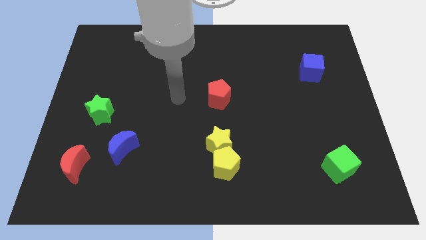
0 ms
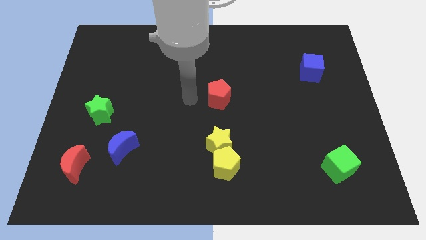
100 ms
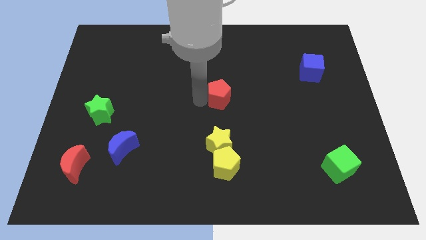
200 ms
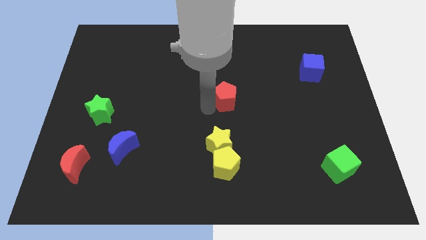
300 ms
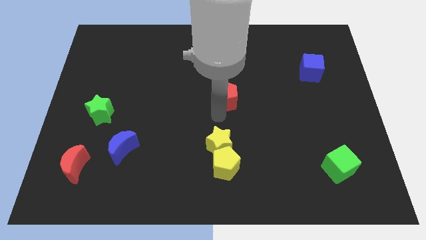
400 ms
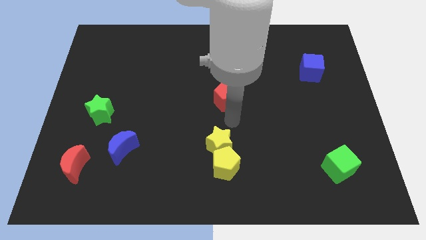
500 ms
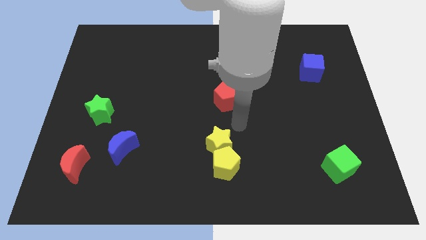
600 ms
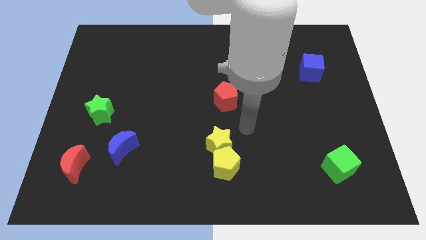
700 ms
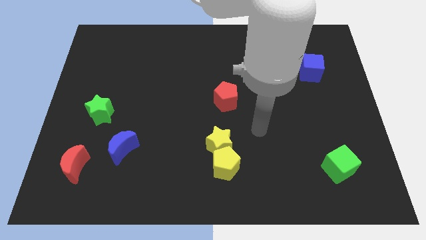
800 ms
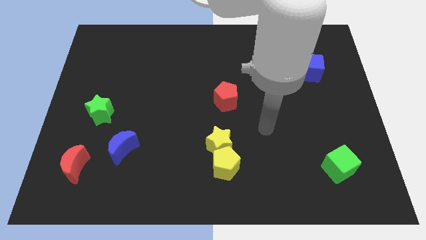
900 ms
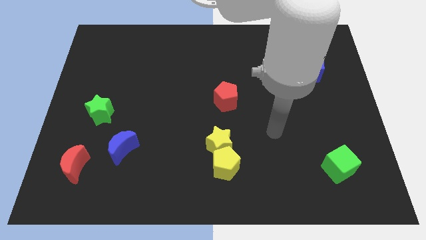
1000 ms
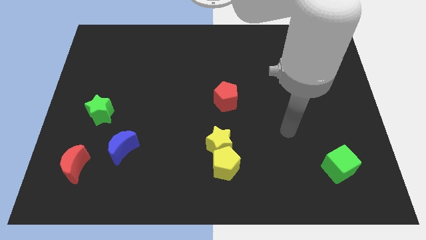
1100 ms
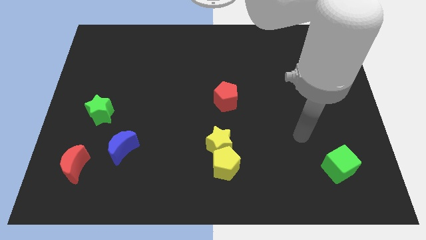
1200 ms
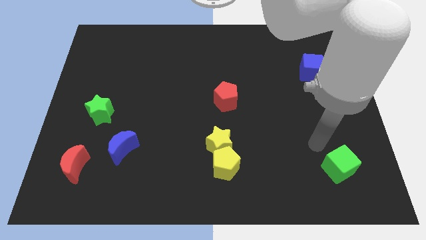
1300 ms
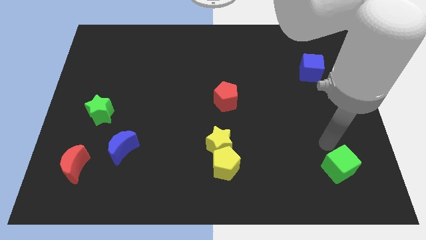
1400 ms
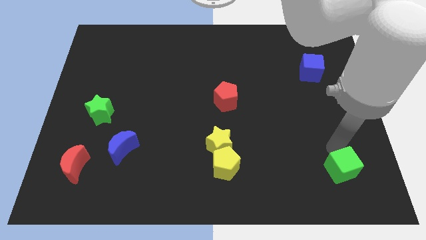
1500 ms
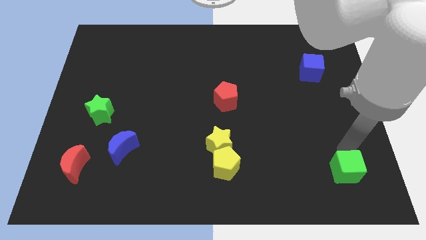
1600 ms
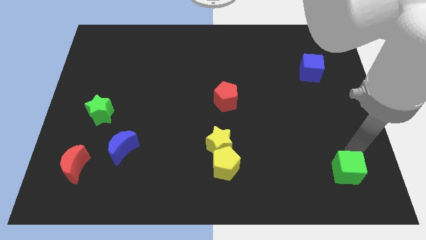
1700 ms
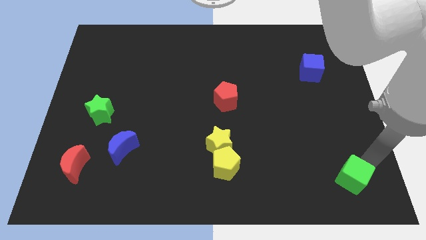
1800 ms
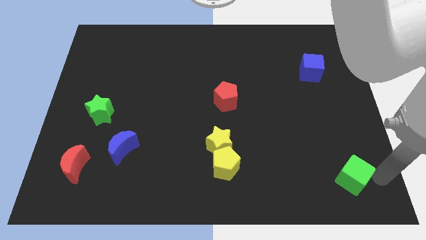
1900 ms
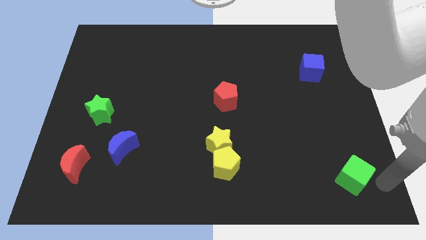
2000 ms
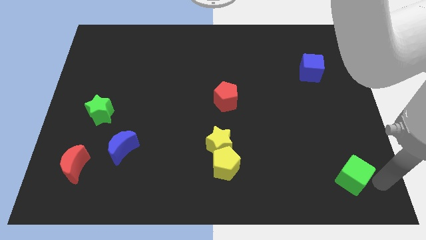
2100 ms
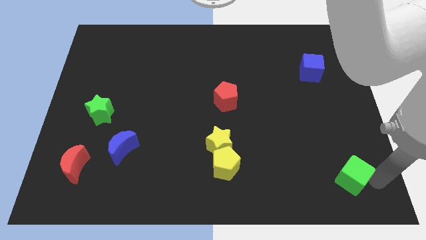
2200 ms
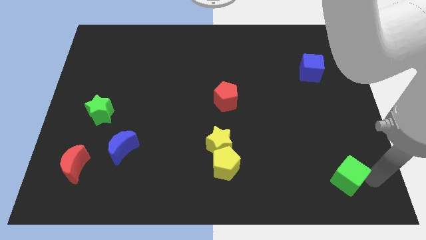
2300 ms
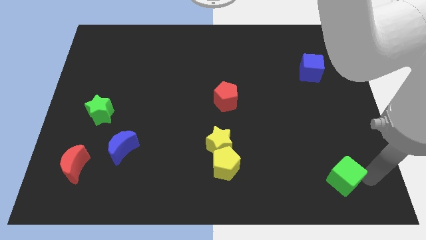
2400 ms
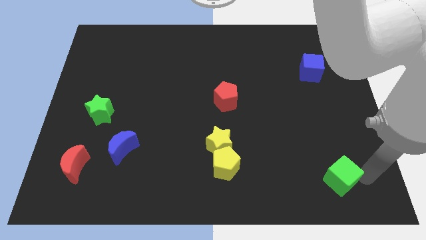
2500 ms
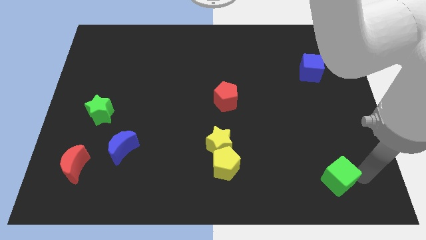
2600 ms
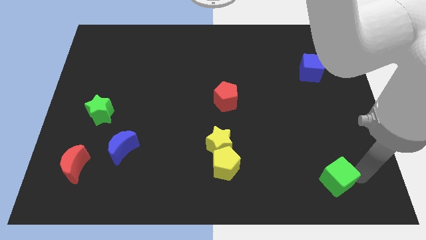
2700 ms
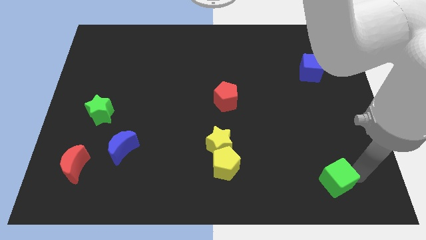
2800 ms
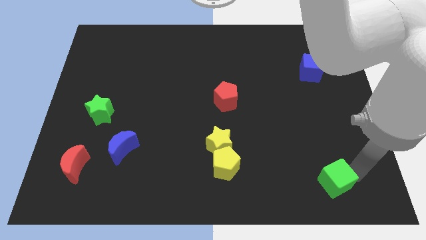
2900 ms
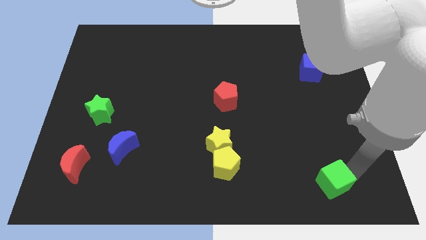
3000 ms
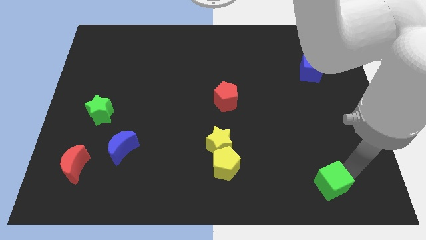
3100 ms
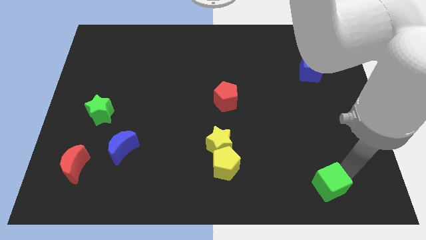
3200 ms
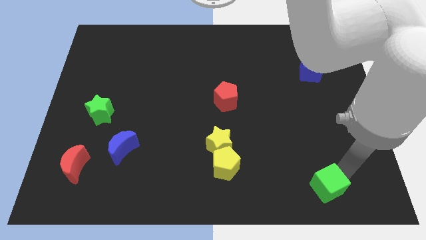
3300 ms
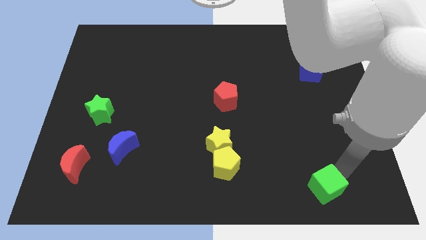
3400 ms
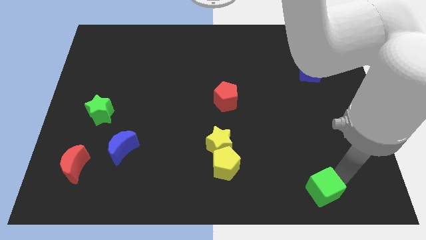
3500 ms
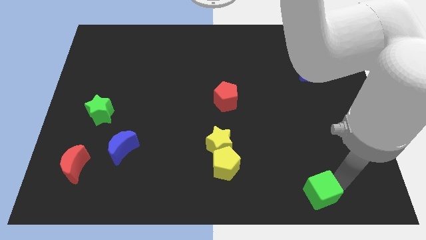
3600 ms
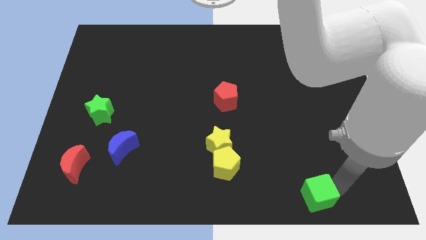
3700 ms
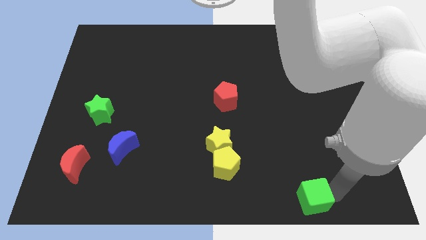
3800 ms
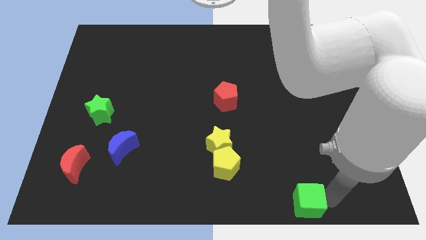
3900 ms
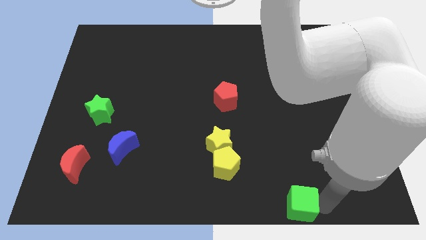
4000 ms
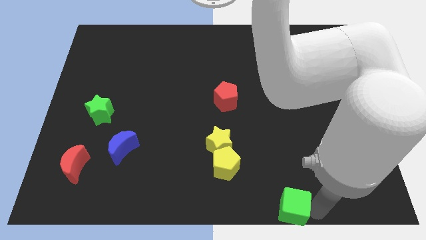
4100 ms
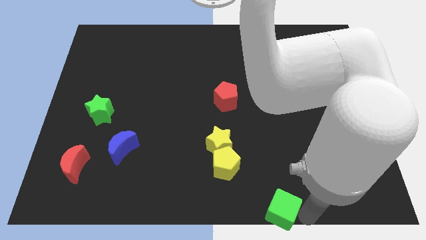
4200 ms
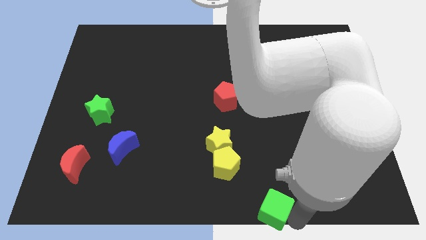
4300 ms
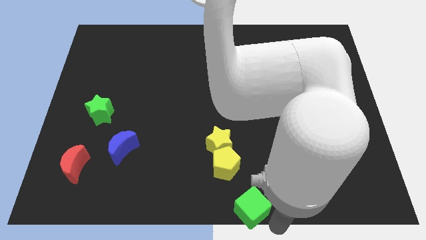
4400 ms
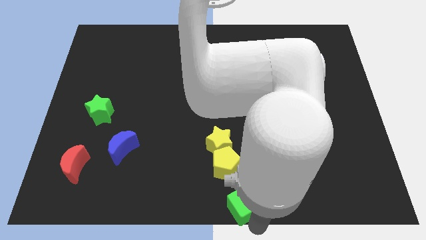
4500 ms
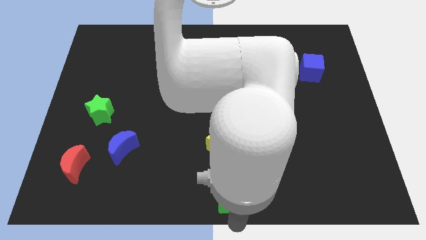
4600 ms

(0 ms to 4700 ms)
move the green cube to the left

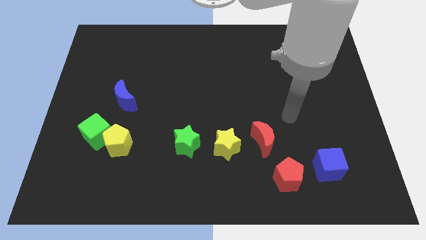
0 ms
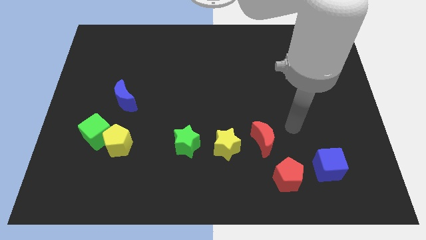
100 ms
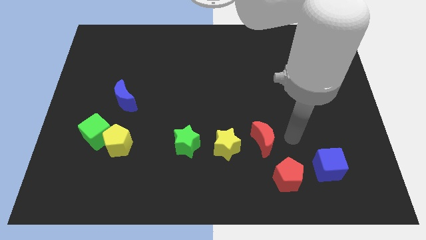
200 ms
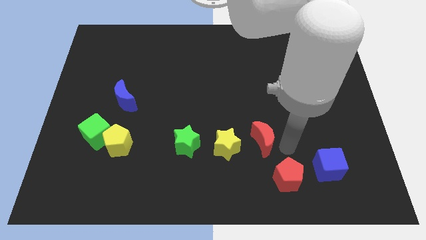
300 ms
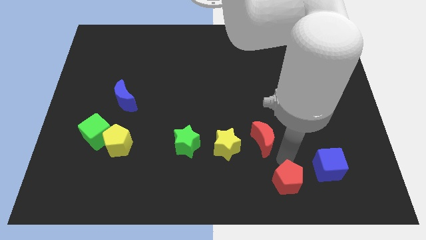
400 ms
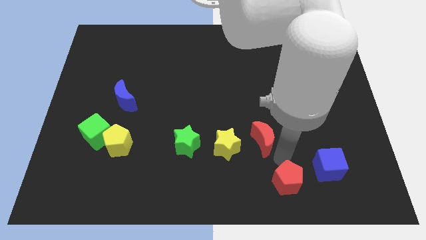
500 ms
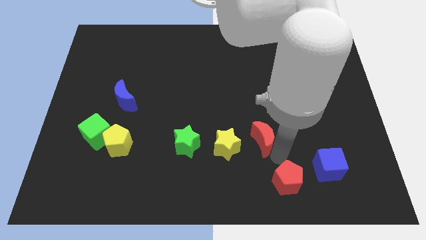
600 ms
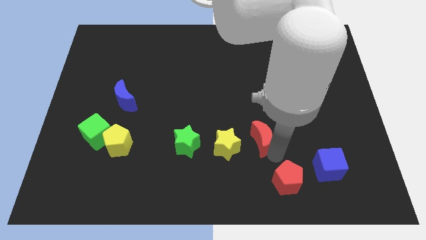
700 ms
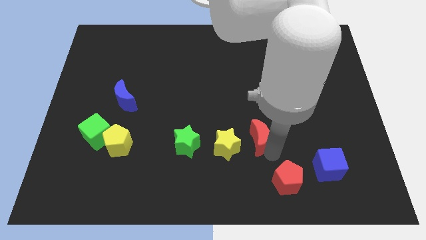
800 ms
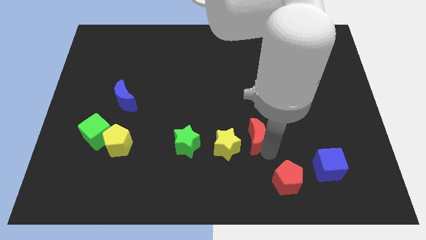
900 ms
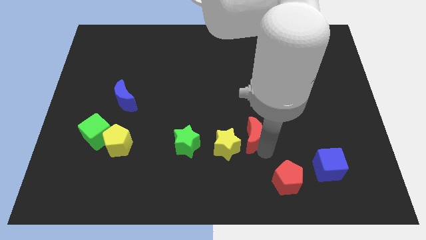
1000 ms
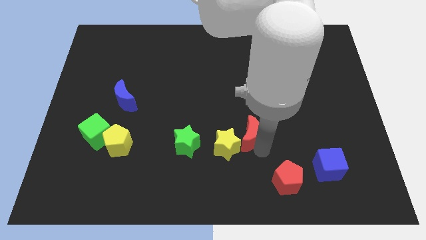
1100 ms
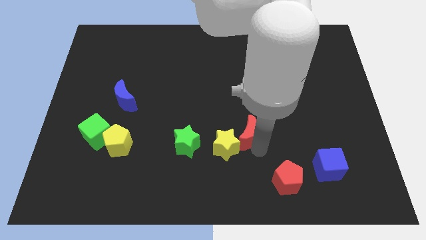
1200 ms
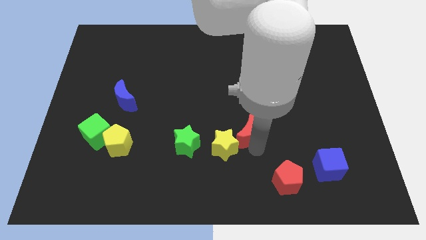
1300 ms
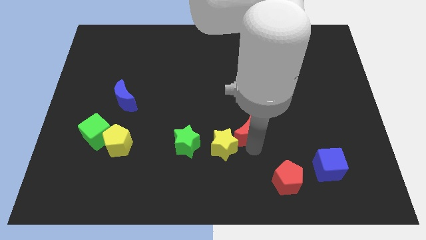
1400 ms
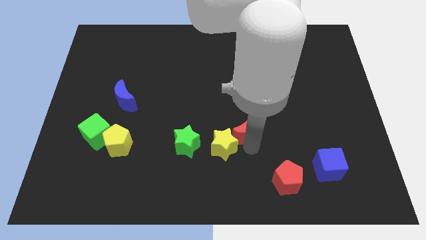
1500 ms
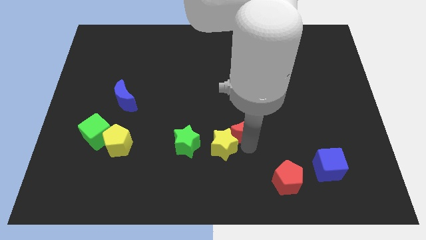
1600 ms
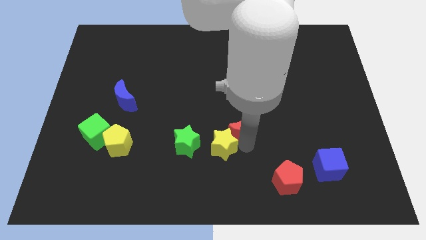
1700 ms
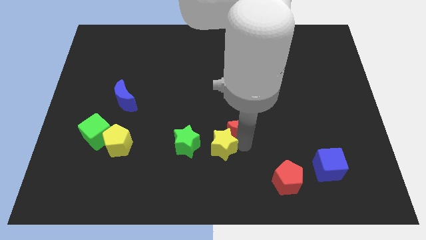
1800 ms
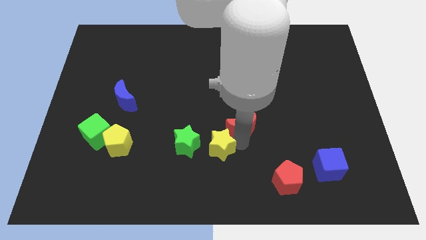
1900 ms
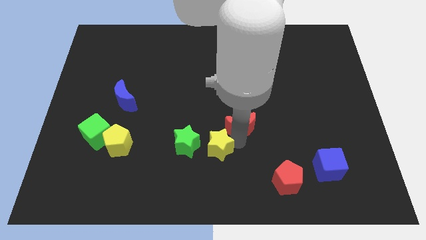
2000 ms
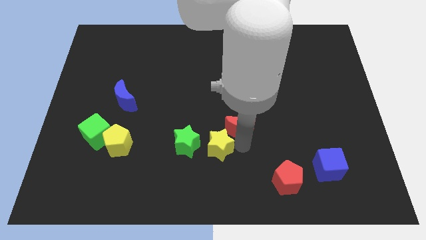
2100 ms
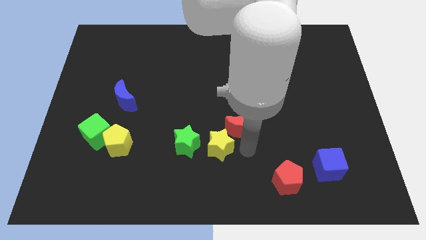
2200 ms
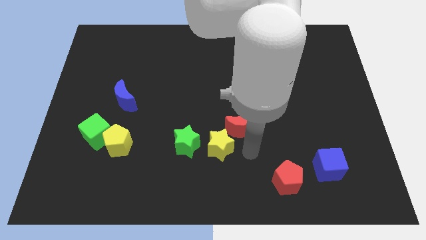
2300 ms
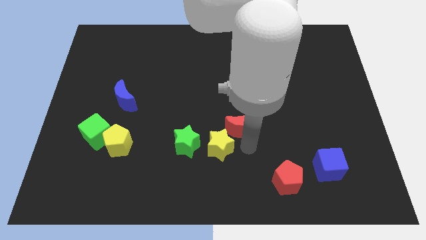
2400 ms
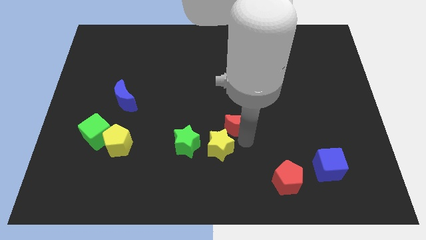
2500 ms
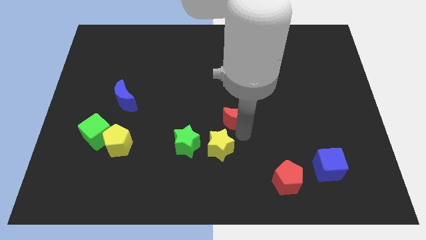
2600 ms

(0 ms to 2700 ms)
slightly slide the red moon up and left diagonally

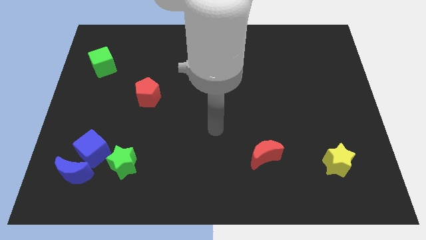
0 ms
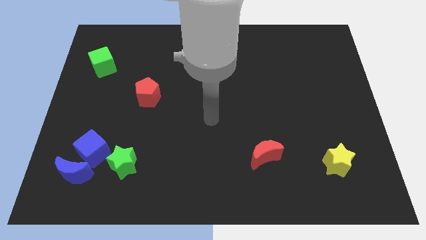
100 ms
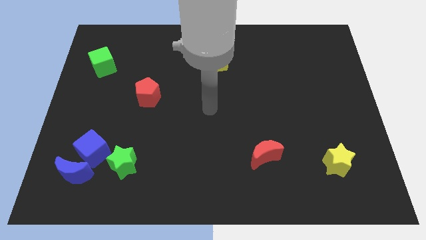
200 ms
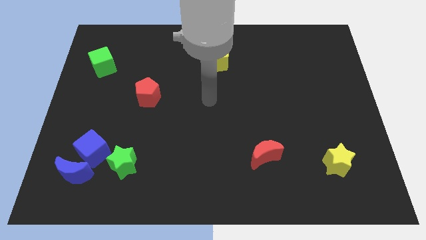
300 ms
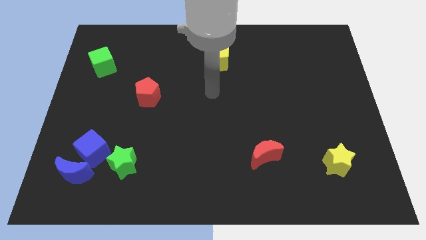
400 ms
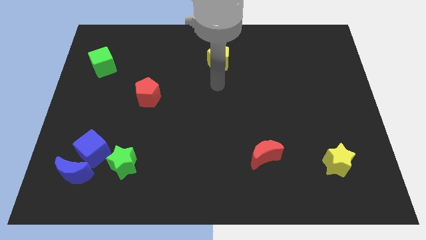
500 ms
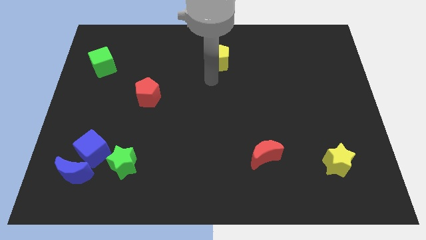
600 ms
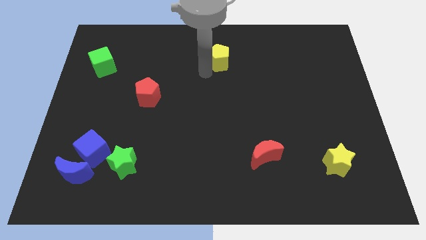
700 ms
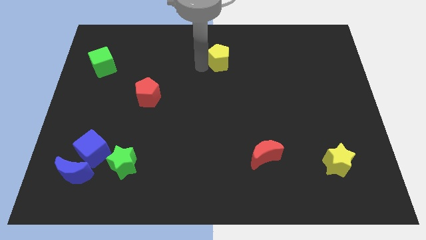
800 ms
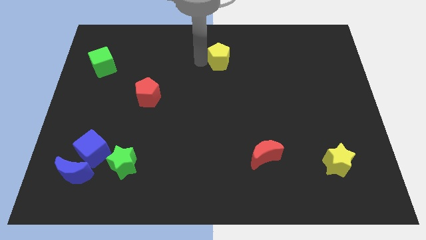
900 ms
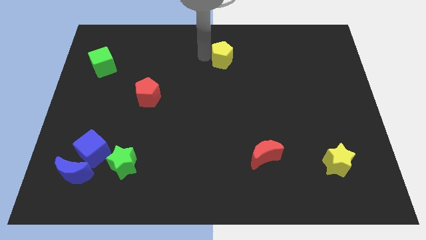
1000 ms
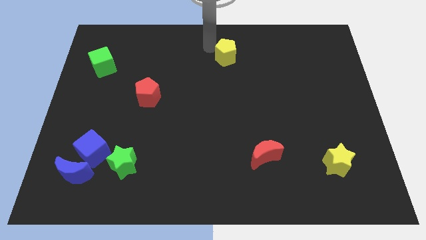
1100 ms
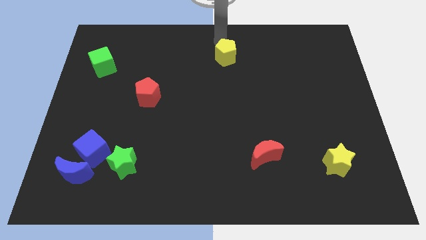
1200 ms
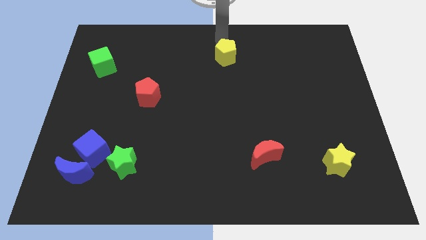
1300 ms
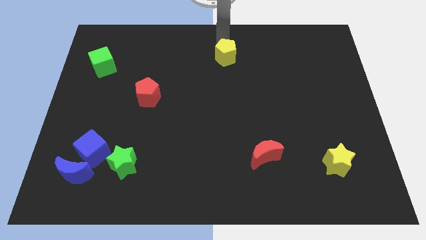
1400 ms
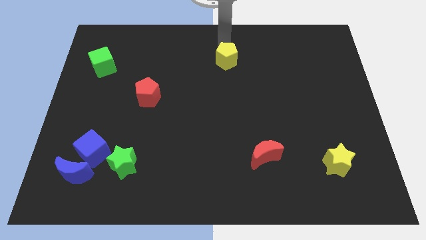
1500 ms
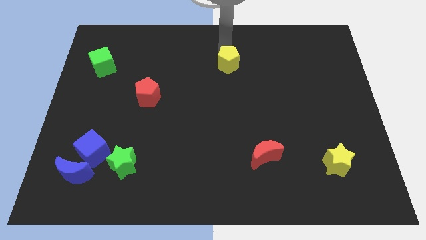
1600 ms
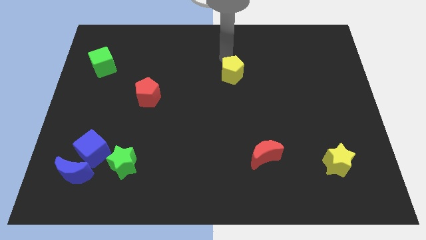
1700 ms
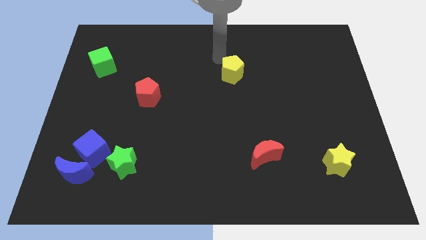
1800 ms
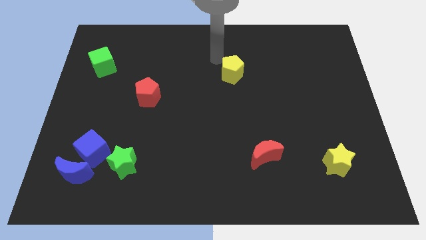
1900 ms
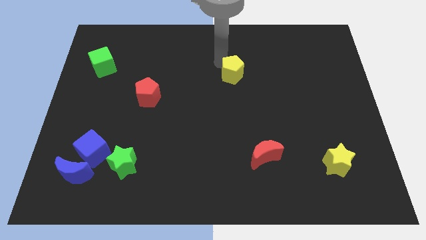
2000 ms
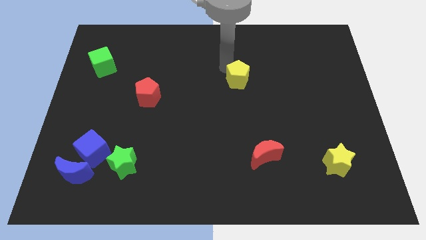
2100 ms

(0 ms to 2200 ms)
push the yellow pentagon a bit diagonally down and right
